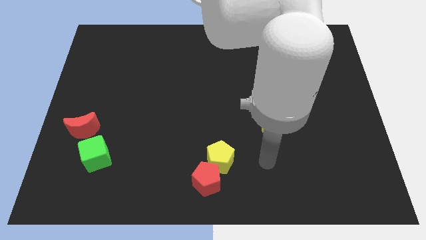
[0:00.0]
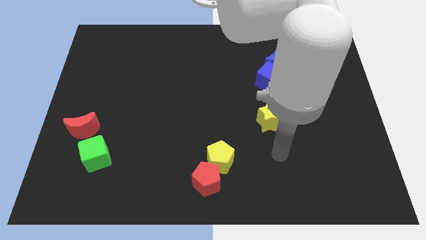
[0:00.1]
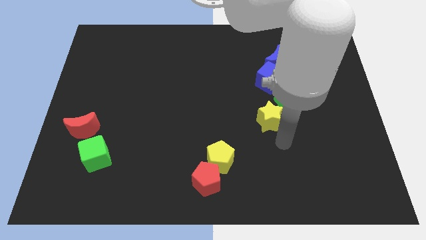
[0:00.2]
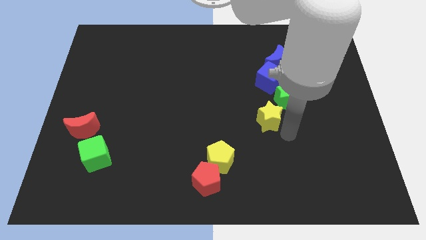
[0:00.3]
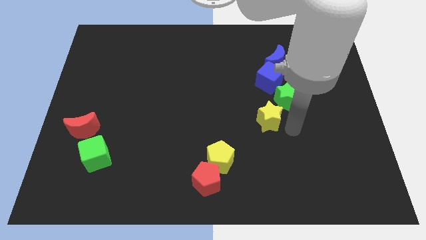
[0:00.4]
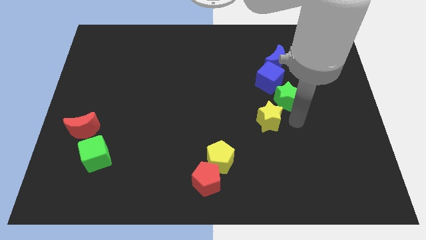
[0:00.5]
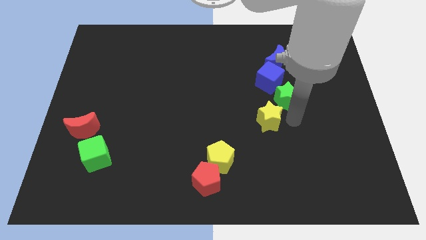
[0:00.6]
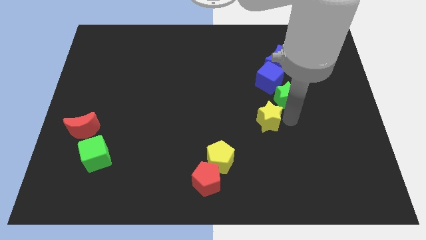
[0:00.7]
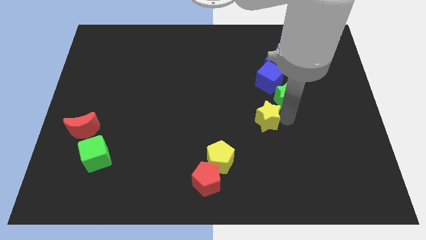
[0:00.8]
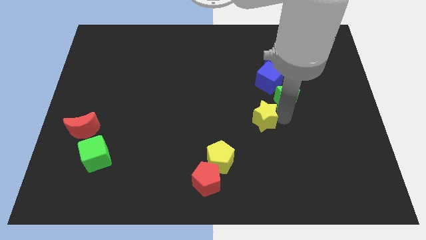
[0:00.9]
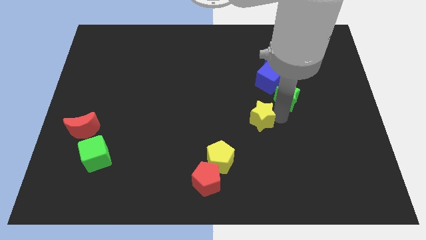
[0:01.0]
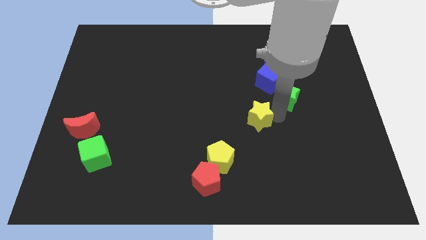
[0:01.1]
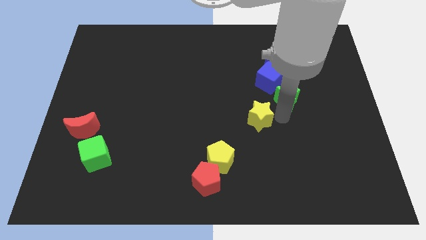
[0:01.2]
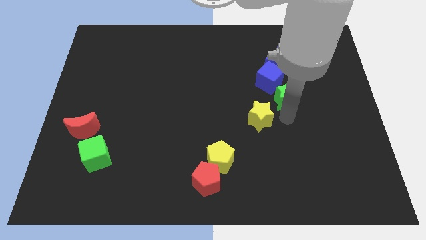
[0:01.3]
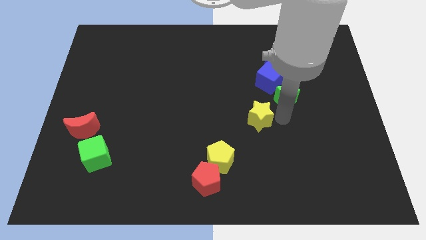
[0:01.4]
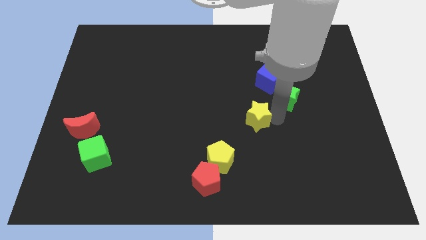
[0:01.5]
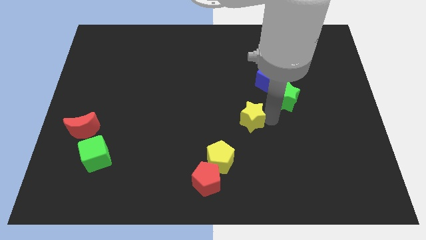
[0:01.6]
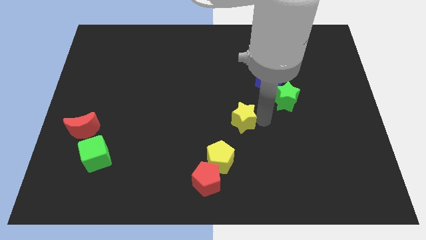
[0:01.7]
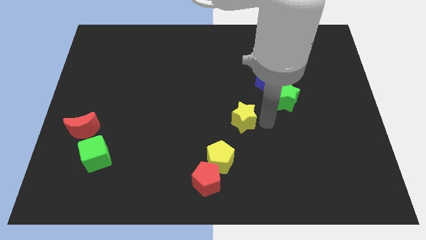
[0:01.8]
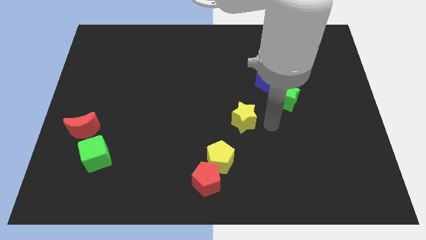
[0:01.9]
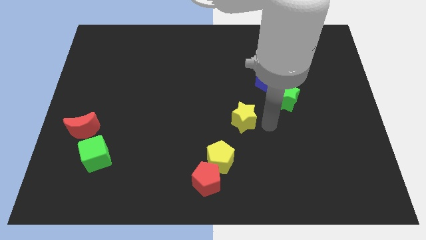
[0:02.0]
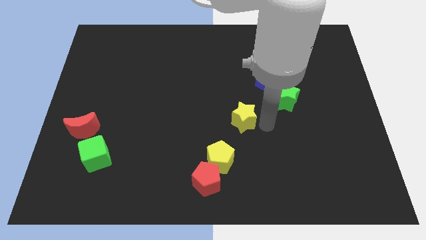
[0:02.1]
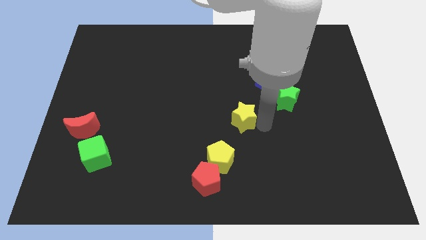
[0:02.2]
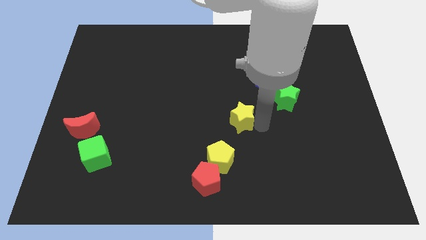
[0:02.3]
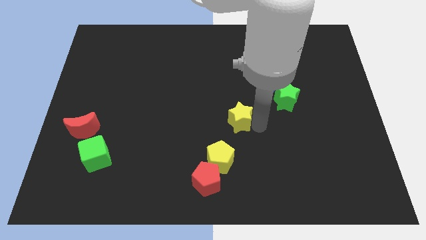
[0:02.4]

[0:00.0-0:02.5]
slightly push the yellow star left

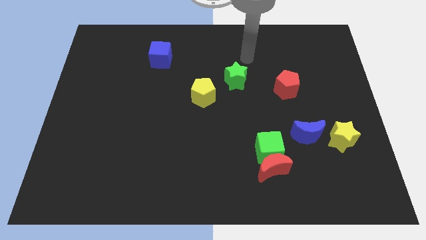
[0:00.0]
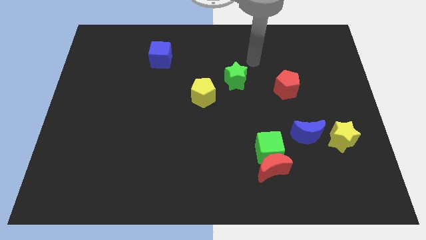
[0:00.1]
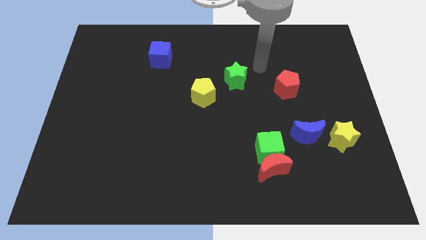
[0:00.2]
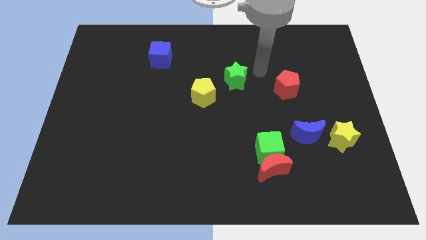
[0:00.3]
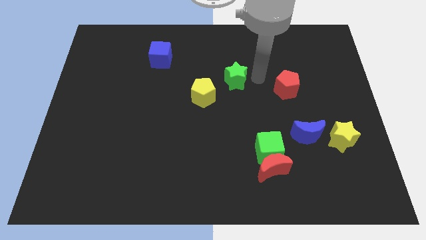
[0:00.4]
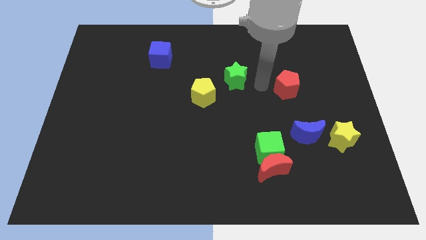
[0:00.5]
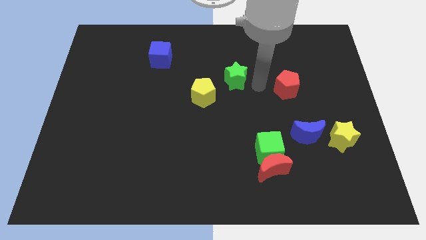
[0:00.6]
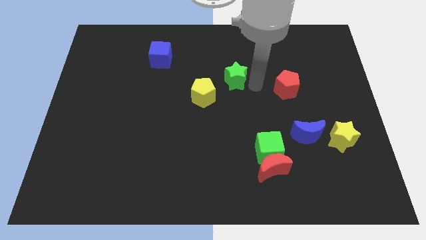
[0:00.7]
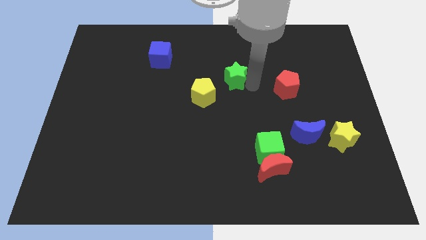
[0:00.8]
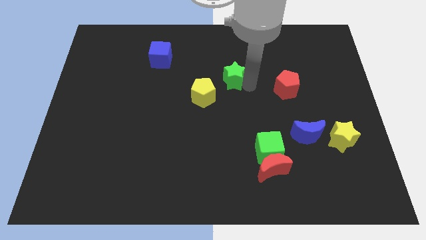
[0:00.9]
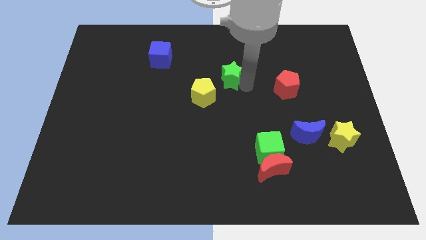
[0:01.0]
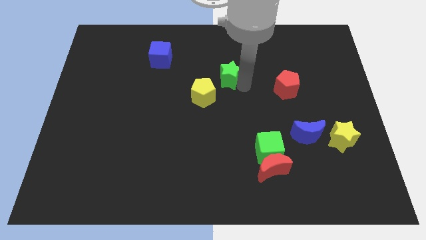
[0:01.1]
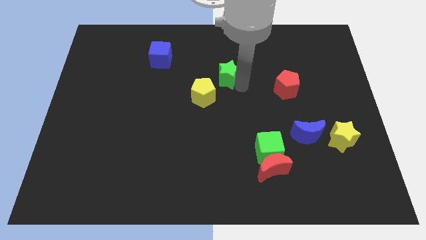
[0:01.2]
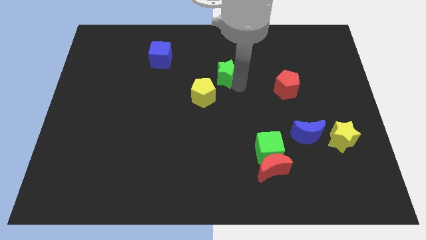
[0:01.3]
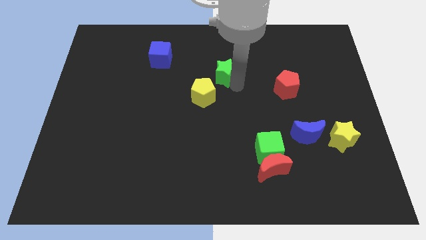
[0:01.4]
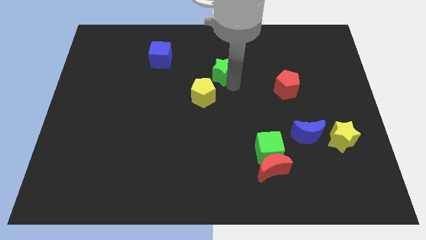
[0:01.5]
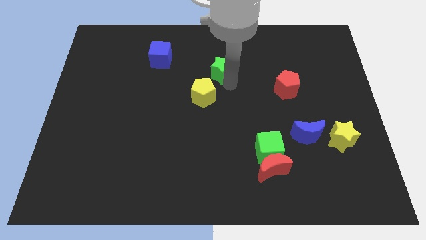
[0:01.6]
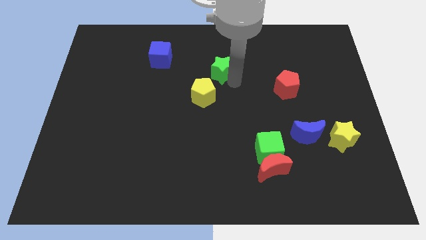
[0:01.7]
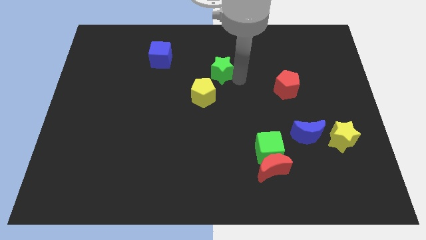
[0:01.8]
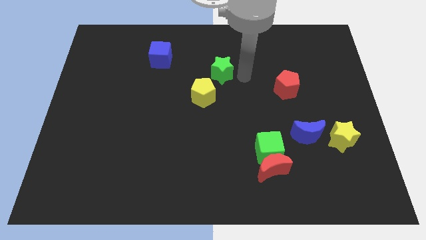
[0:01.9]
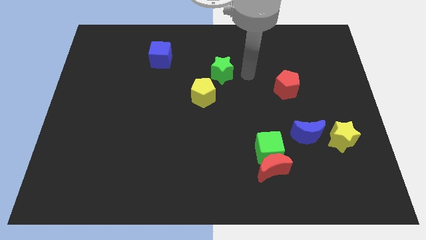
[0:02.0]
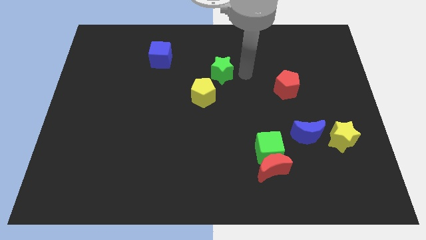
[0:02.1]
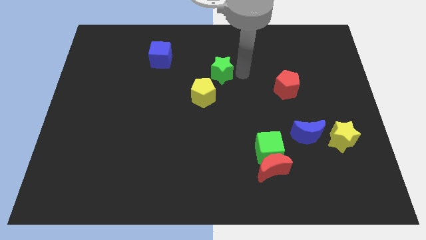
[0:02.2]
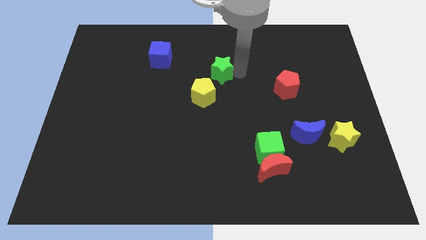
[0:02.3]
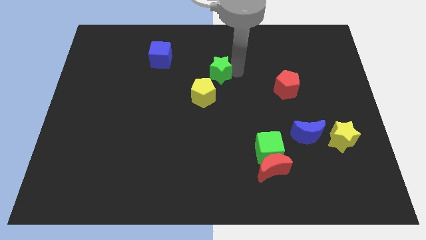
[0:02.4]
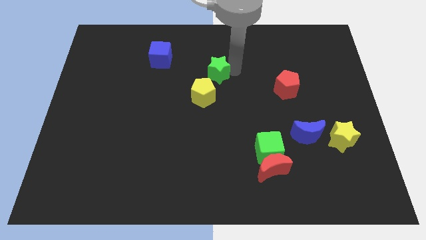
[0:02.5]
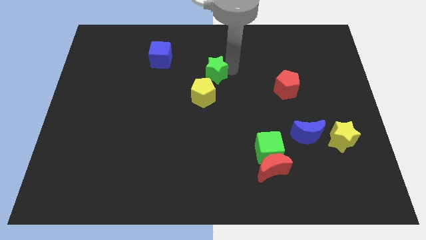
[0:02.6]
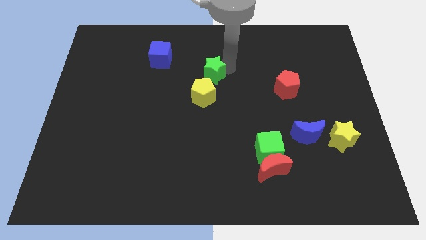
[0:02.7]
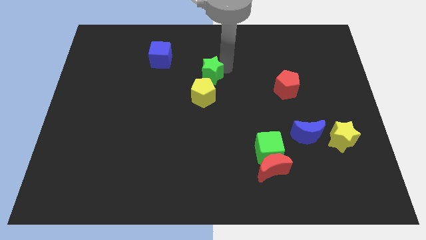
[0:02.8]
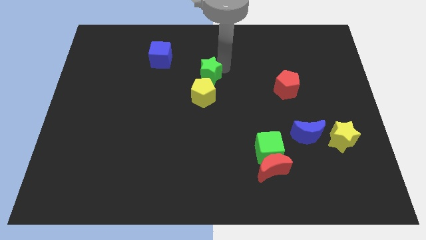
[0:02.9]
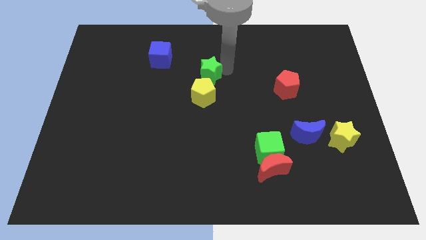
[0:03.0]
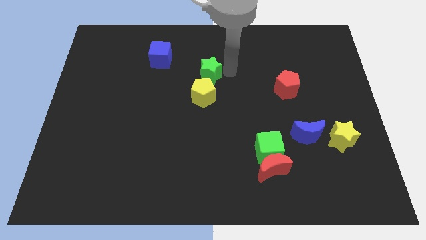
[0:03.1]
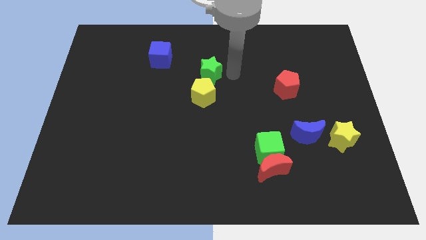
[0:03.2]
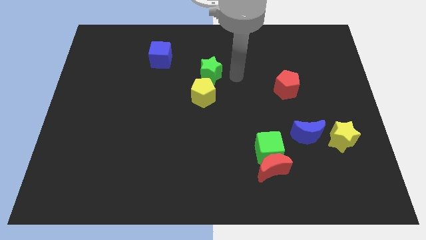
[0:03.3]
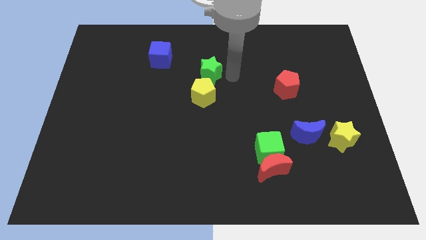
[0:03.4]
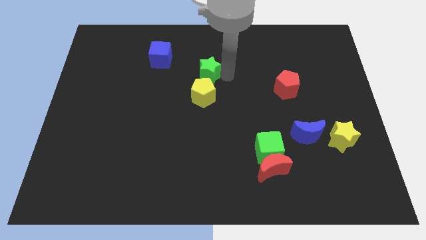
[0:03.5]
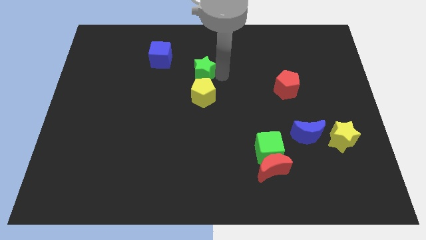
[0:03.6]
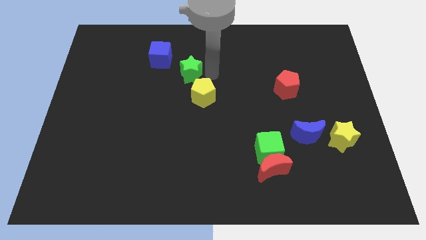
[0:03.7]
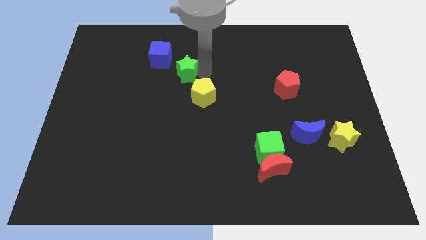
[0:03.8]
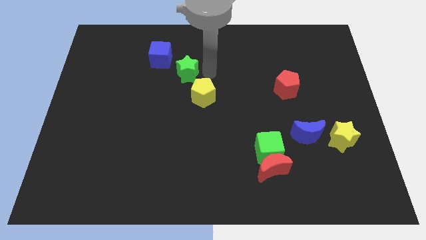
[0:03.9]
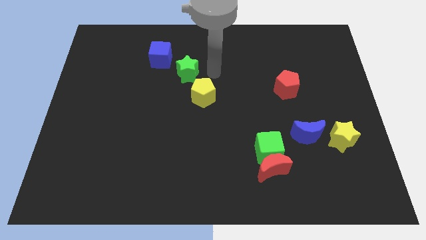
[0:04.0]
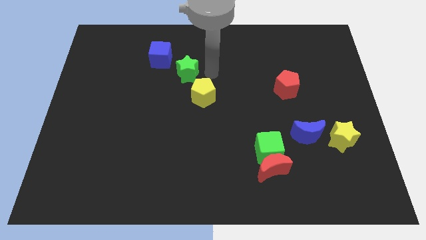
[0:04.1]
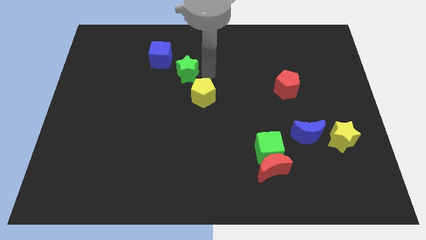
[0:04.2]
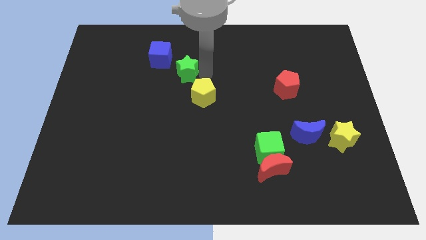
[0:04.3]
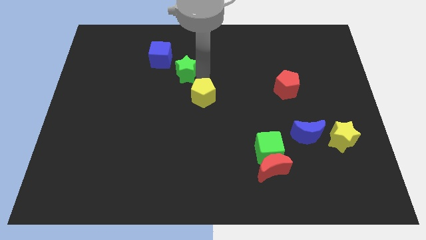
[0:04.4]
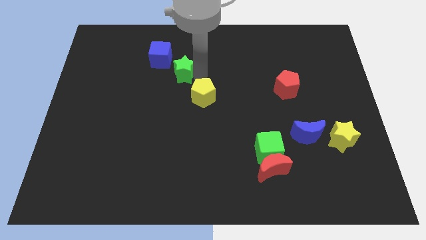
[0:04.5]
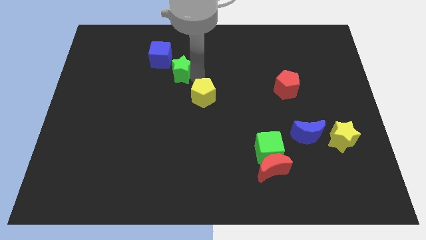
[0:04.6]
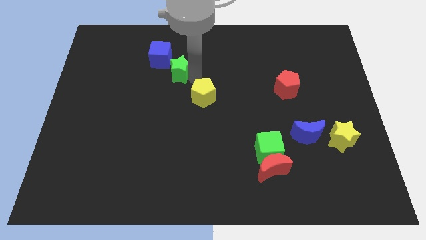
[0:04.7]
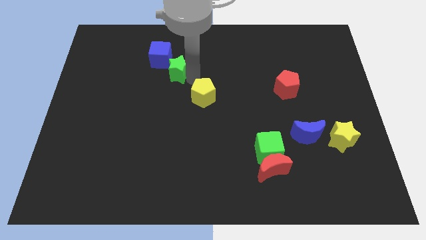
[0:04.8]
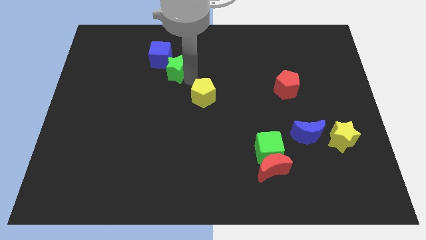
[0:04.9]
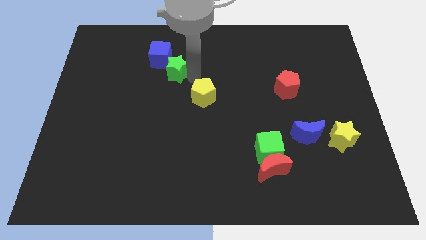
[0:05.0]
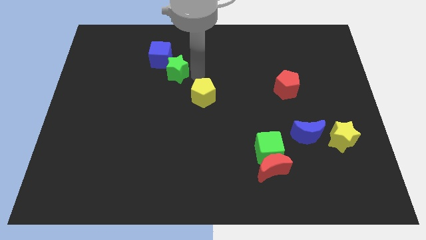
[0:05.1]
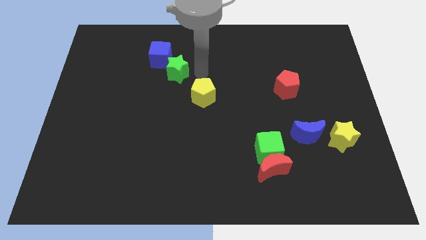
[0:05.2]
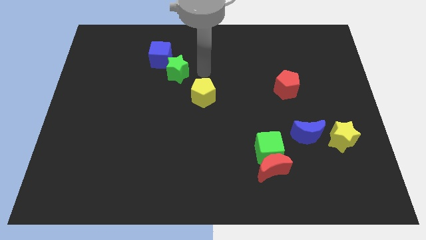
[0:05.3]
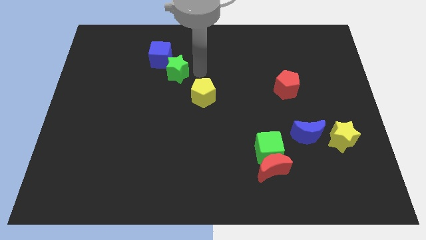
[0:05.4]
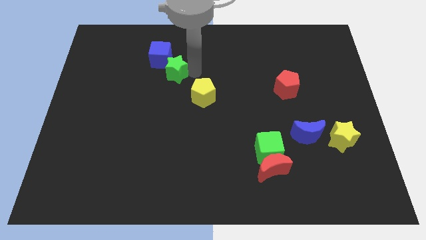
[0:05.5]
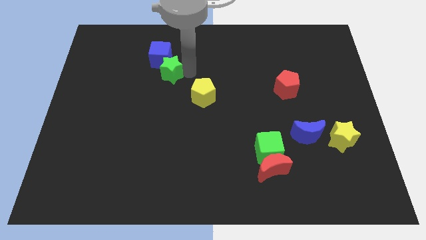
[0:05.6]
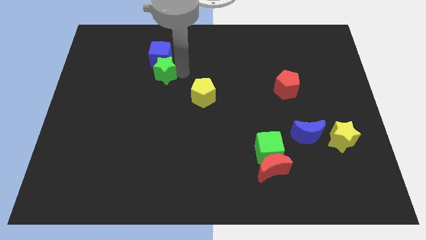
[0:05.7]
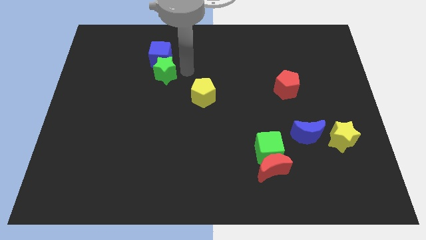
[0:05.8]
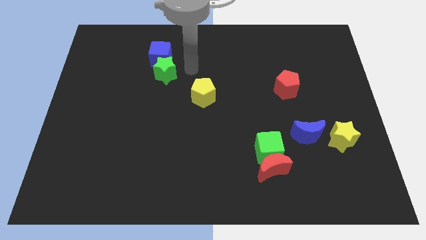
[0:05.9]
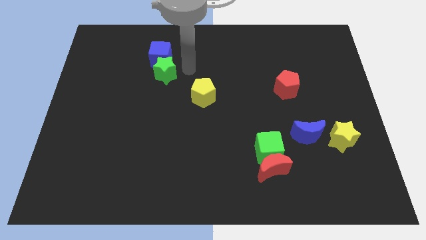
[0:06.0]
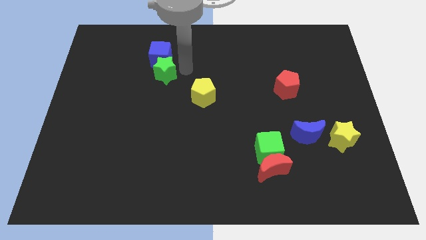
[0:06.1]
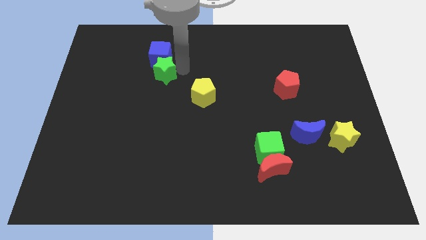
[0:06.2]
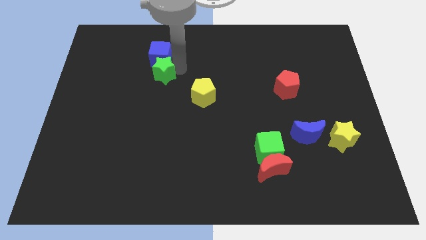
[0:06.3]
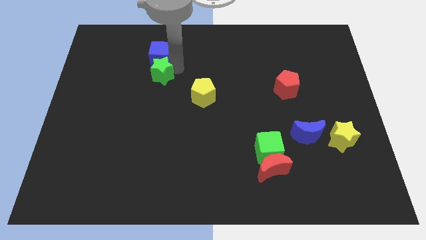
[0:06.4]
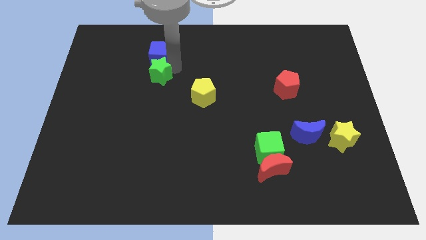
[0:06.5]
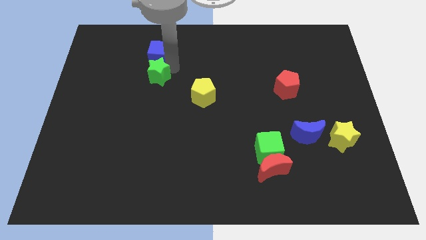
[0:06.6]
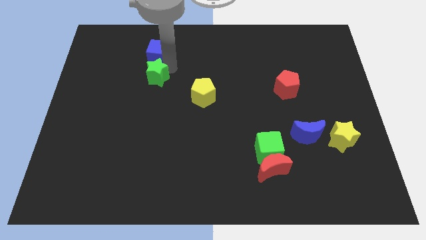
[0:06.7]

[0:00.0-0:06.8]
slide the green star left
